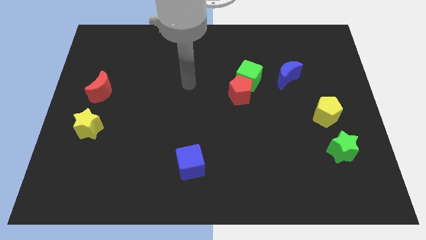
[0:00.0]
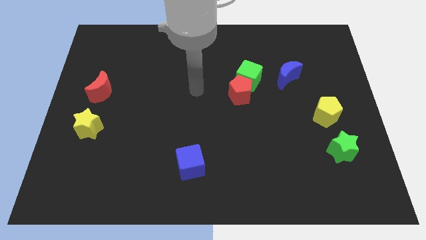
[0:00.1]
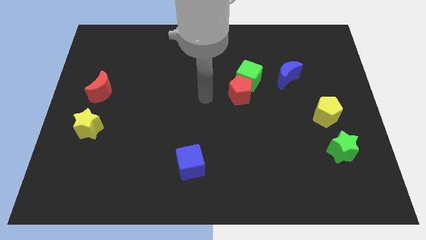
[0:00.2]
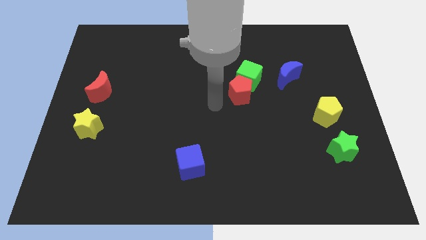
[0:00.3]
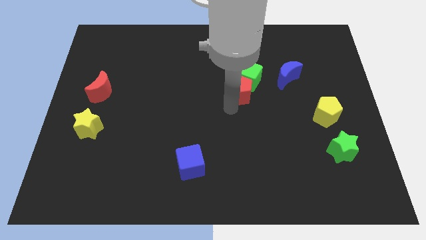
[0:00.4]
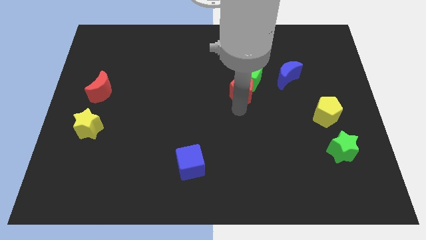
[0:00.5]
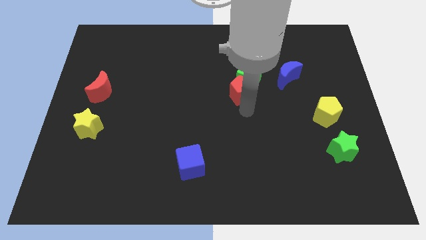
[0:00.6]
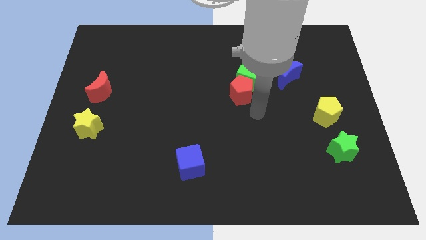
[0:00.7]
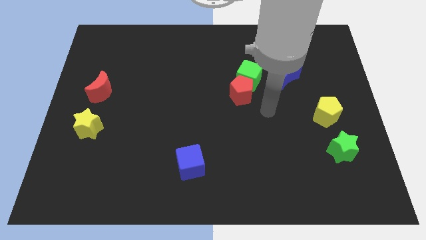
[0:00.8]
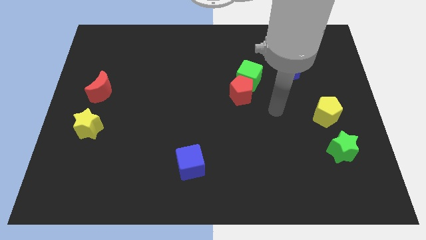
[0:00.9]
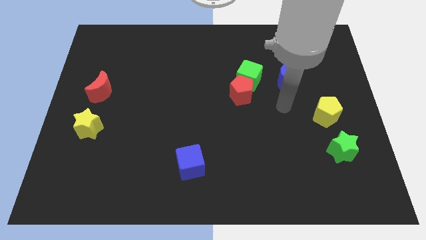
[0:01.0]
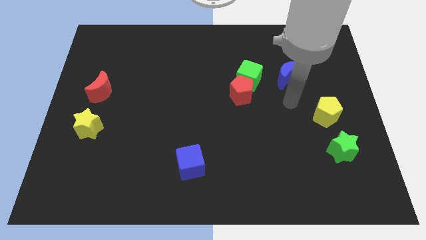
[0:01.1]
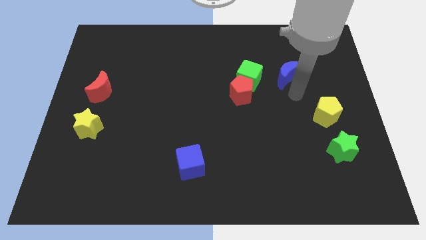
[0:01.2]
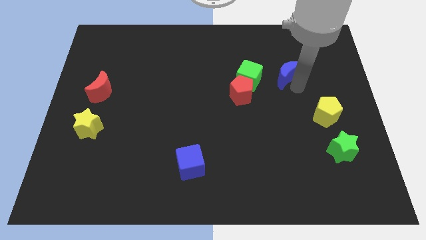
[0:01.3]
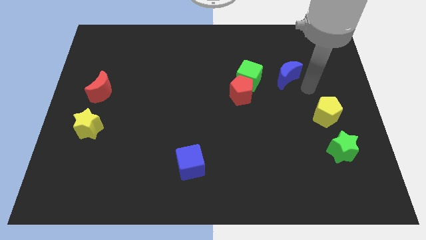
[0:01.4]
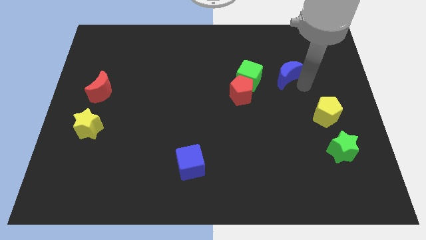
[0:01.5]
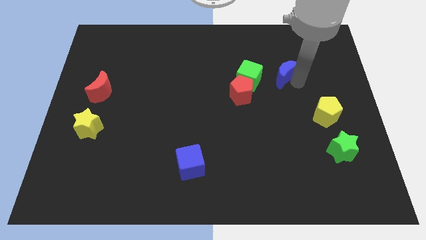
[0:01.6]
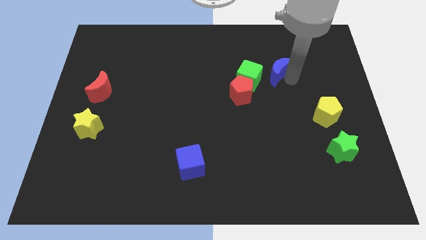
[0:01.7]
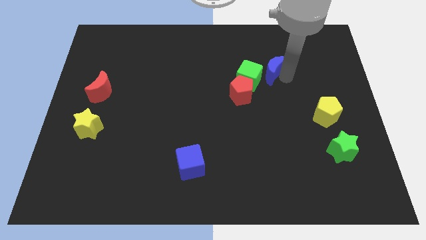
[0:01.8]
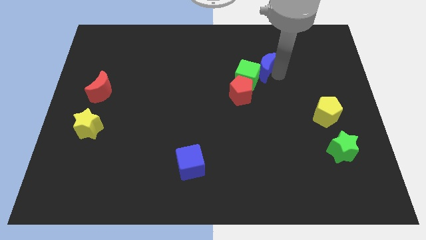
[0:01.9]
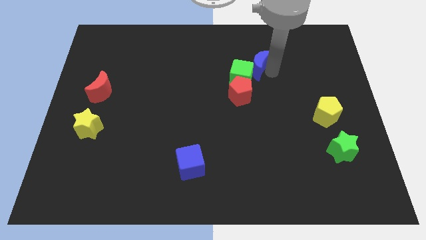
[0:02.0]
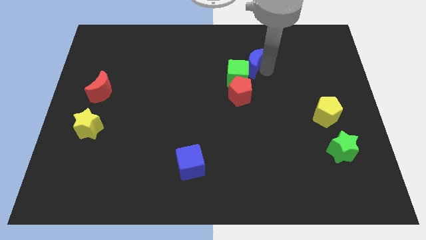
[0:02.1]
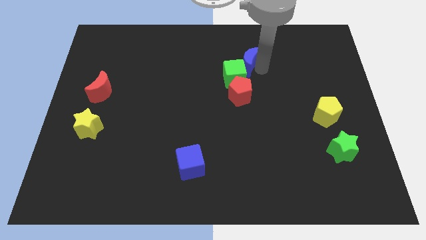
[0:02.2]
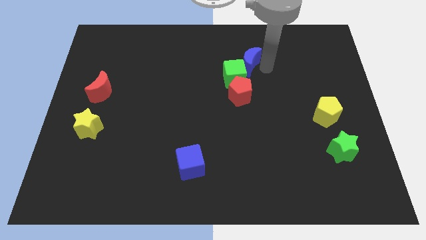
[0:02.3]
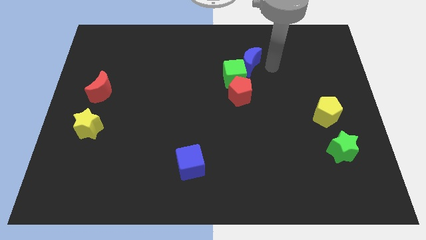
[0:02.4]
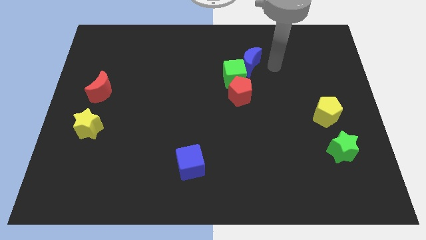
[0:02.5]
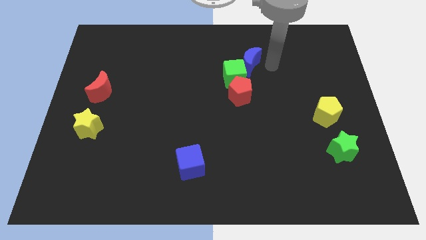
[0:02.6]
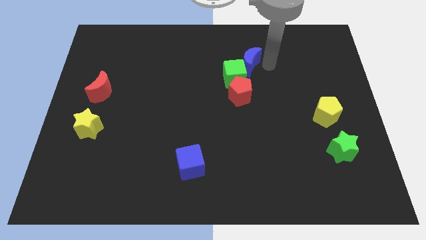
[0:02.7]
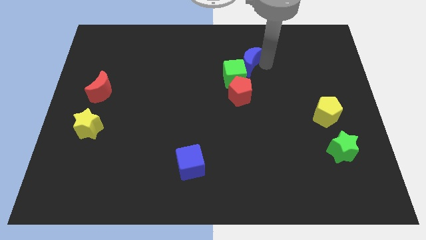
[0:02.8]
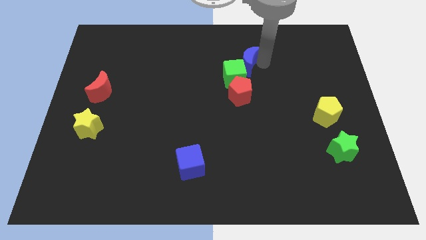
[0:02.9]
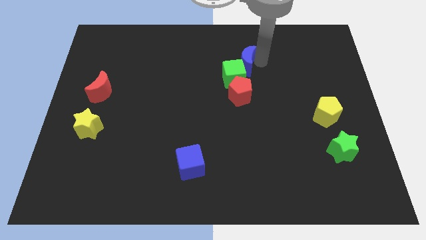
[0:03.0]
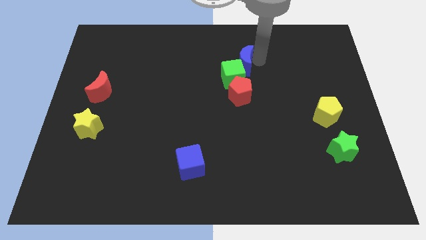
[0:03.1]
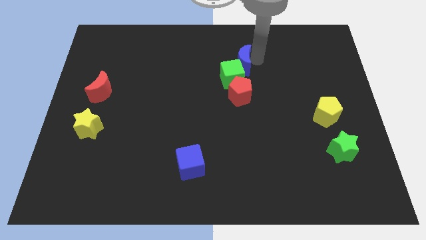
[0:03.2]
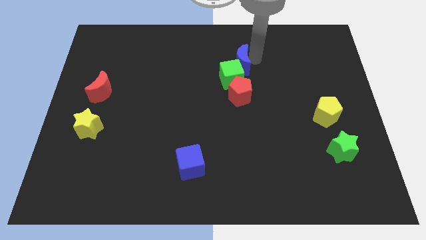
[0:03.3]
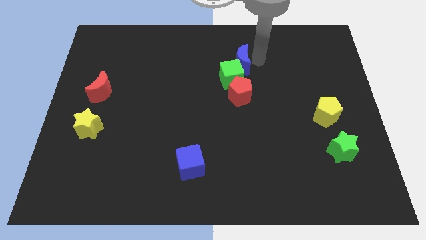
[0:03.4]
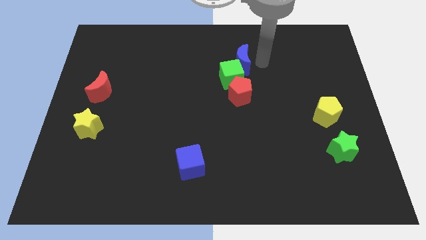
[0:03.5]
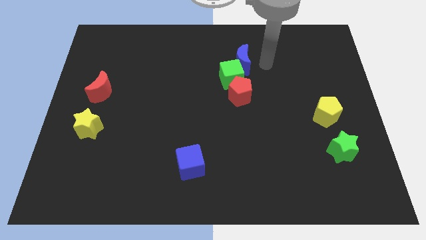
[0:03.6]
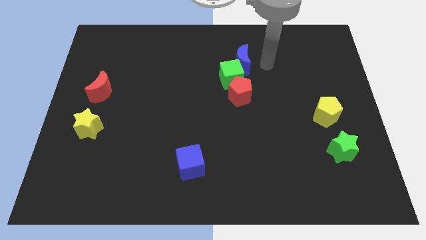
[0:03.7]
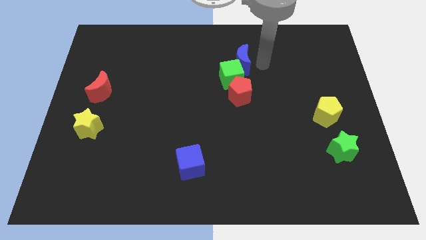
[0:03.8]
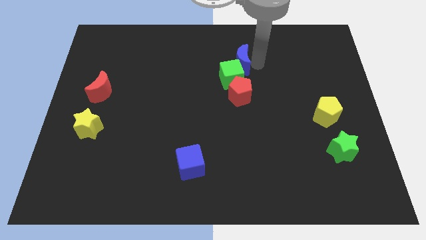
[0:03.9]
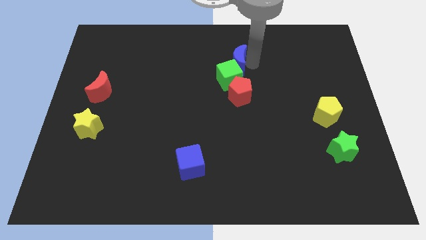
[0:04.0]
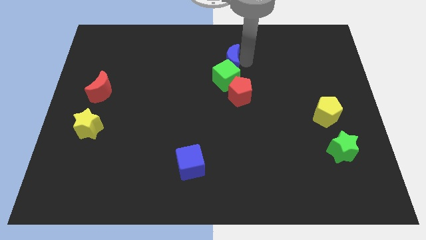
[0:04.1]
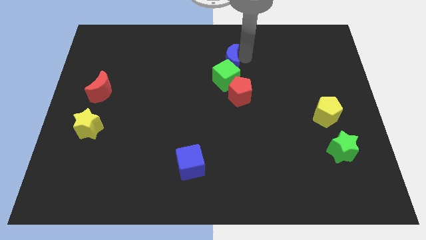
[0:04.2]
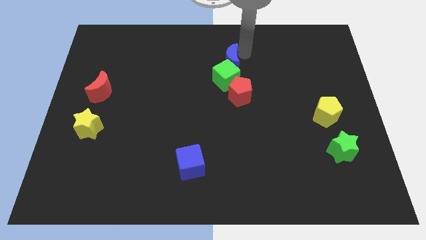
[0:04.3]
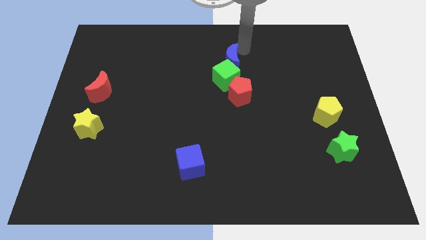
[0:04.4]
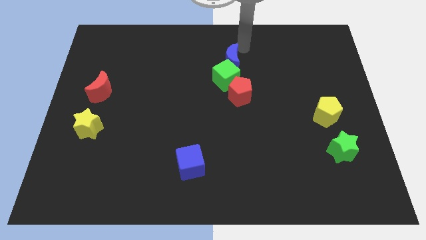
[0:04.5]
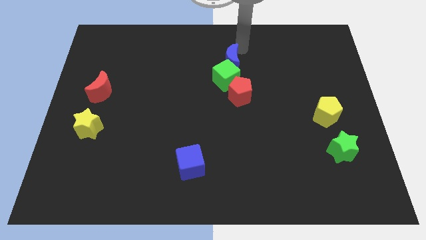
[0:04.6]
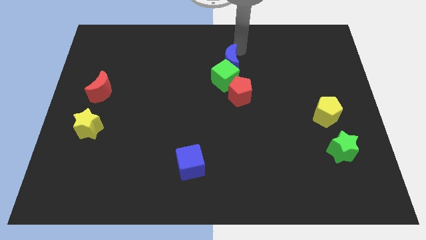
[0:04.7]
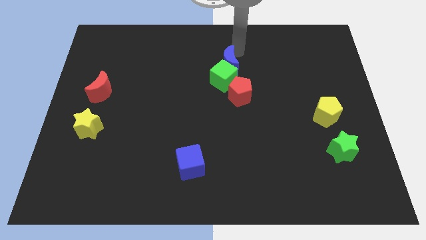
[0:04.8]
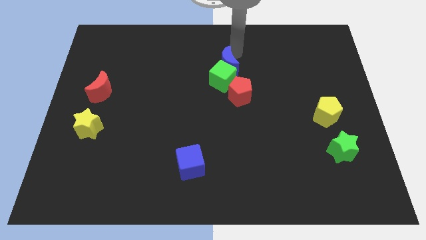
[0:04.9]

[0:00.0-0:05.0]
push the blue moon to the top left side of the red pentagon

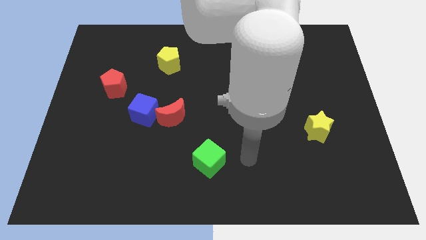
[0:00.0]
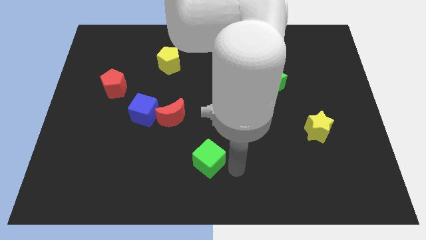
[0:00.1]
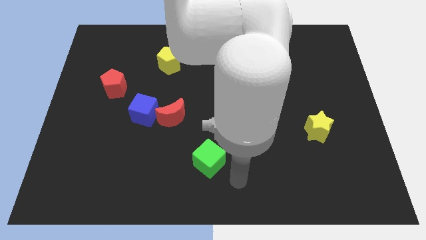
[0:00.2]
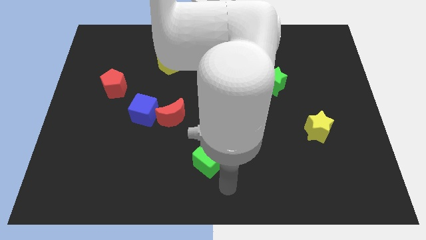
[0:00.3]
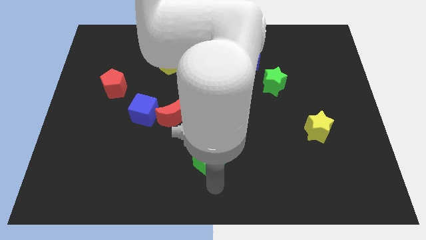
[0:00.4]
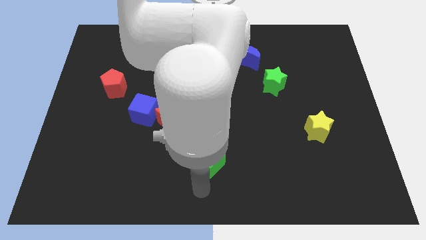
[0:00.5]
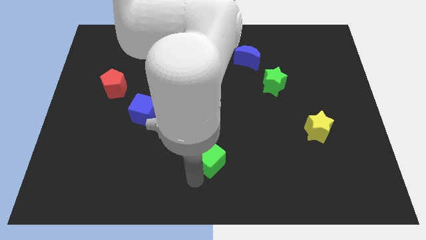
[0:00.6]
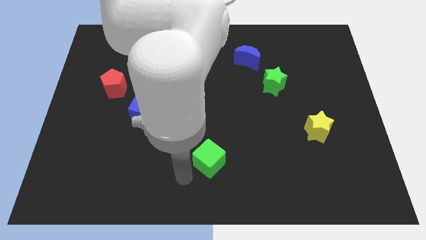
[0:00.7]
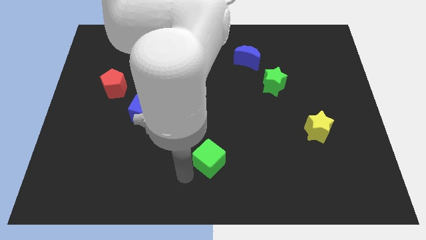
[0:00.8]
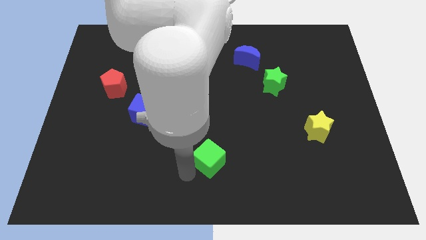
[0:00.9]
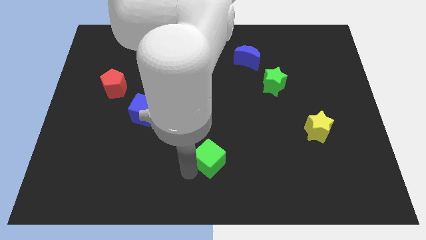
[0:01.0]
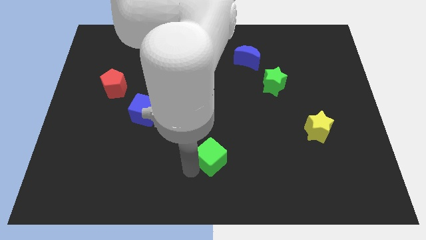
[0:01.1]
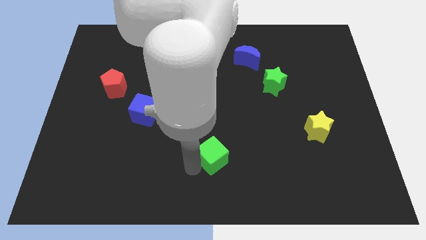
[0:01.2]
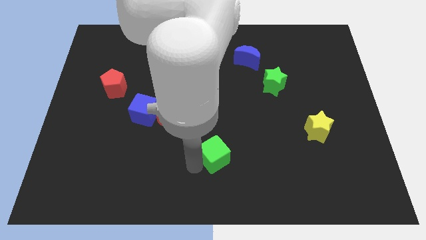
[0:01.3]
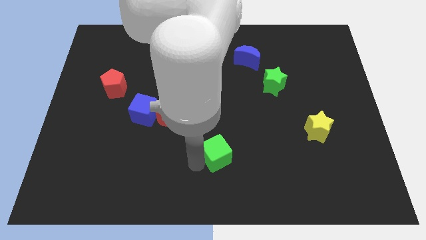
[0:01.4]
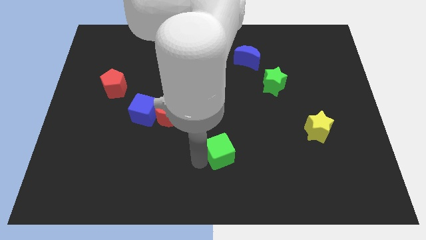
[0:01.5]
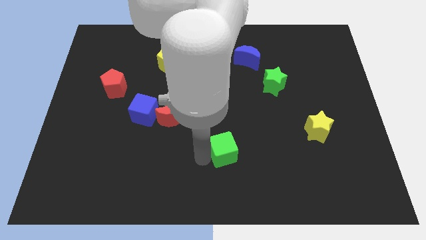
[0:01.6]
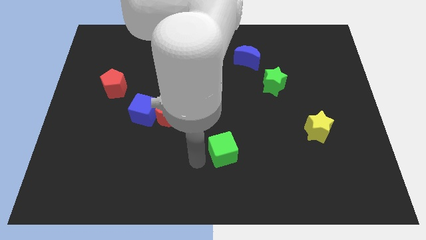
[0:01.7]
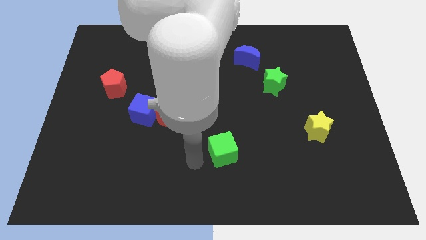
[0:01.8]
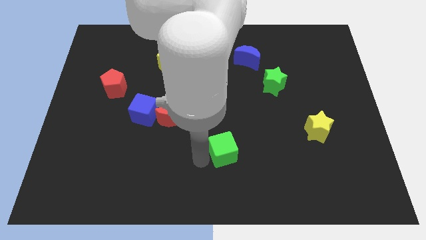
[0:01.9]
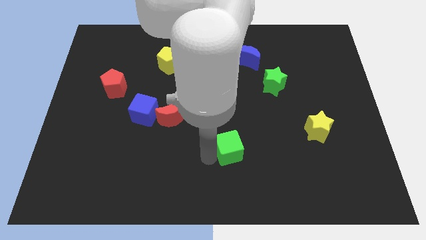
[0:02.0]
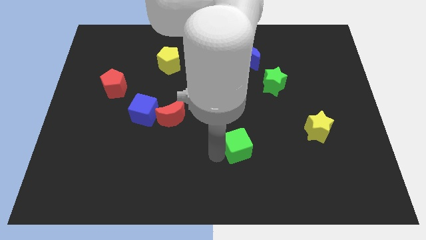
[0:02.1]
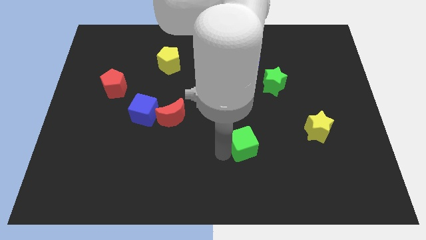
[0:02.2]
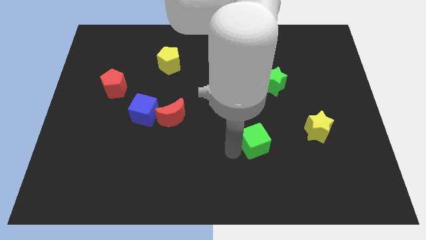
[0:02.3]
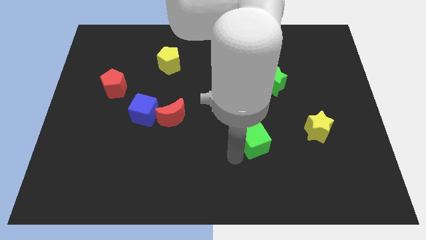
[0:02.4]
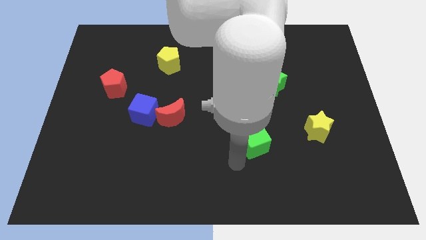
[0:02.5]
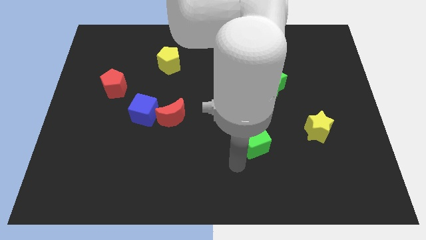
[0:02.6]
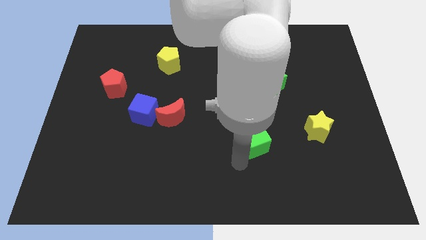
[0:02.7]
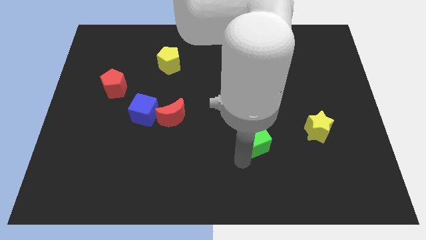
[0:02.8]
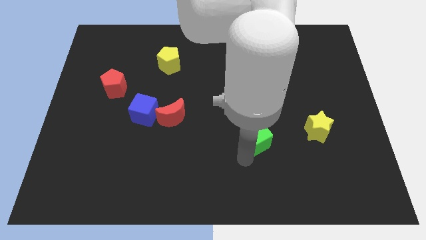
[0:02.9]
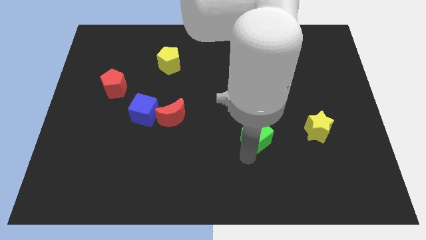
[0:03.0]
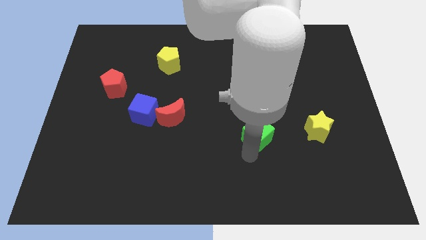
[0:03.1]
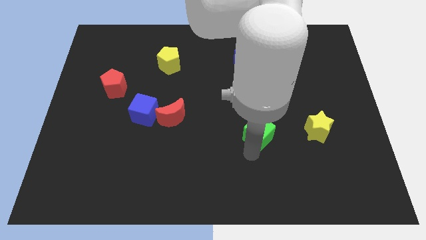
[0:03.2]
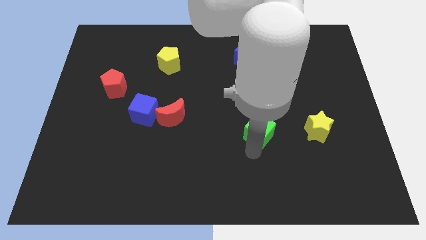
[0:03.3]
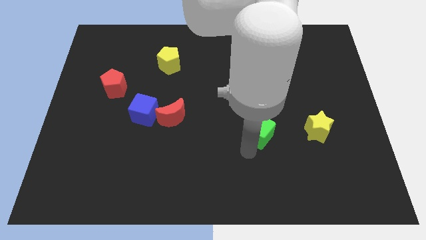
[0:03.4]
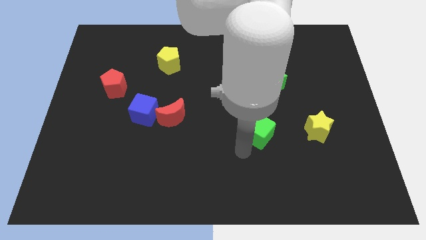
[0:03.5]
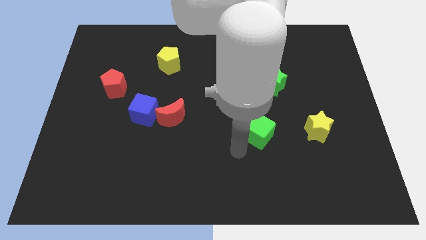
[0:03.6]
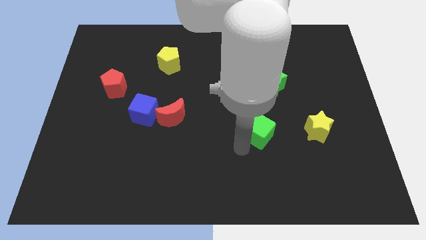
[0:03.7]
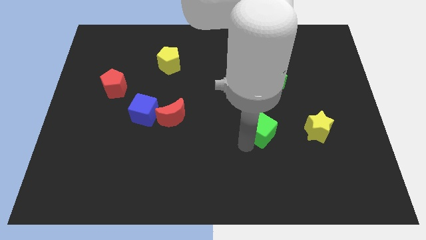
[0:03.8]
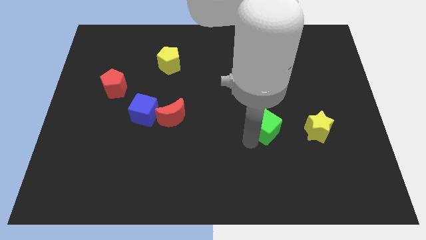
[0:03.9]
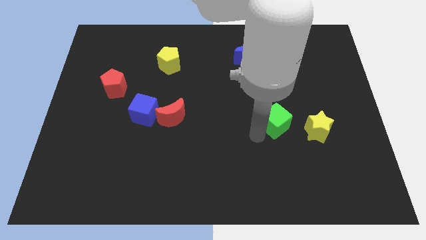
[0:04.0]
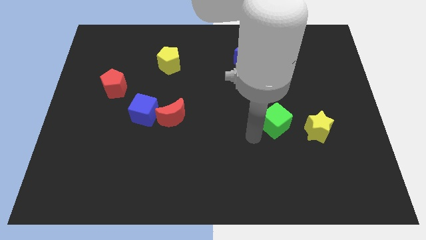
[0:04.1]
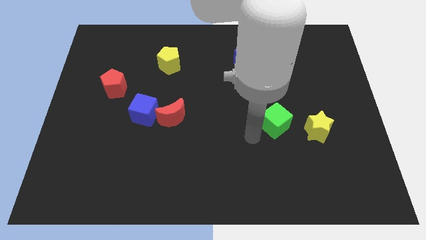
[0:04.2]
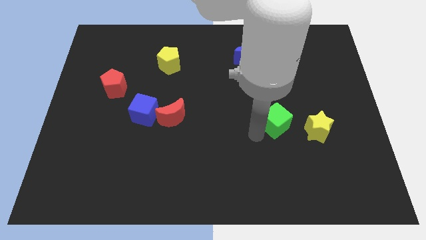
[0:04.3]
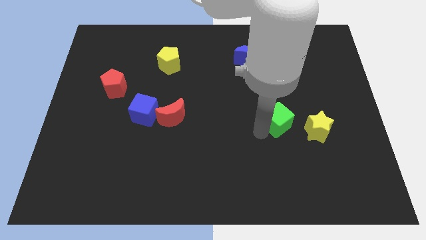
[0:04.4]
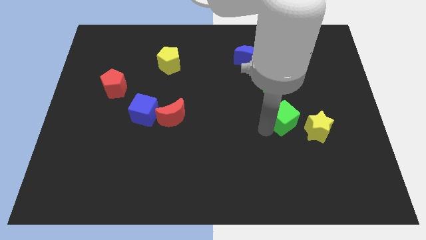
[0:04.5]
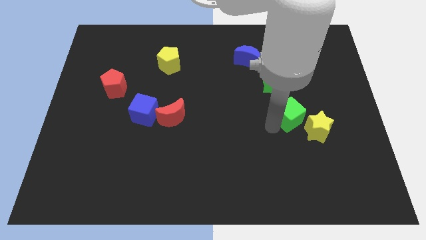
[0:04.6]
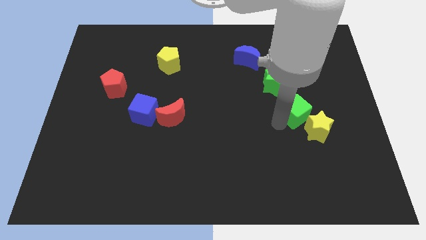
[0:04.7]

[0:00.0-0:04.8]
move the green cube to the top side of the yellow star
